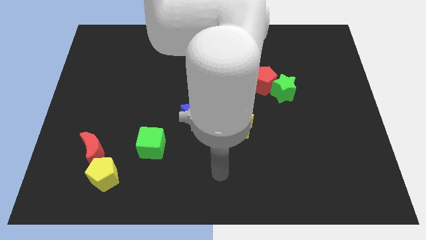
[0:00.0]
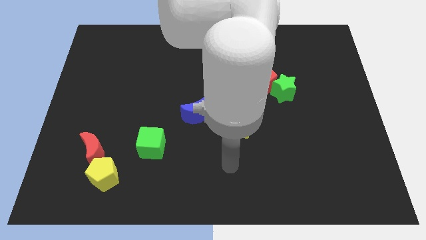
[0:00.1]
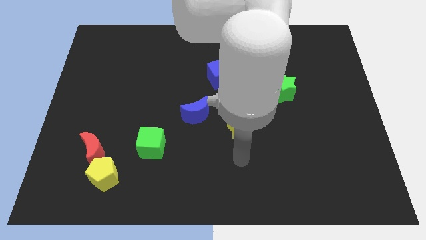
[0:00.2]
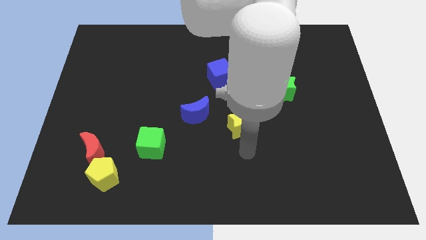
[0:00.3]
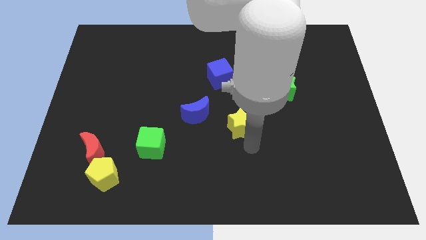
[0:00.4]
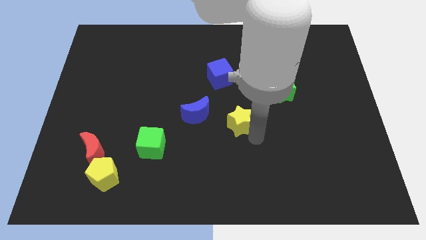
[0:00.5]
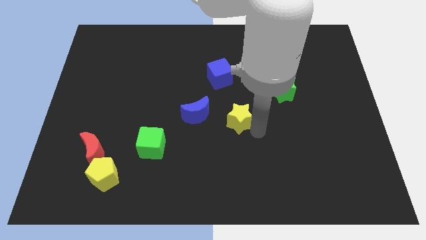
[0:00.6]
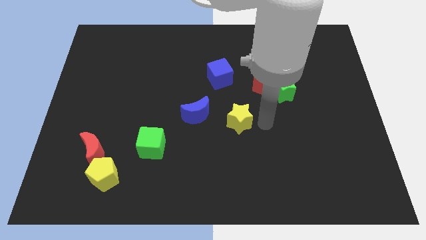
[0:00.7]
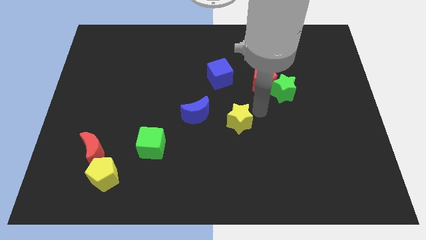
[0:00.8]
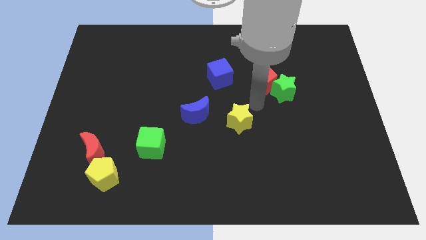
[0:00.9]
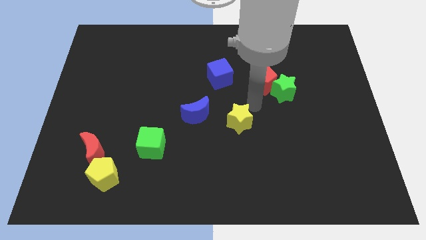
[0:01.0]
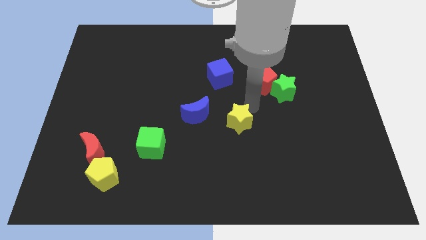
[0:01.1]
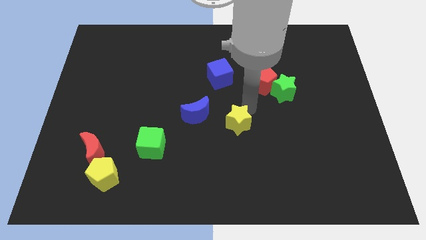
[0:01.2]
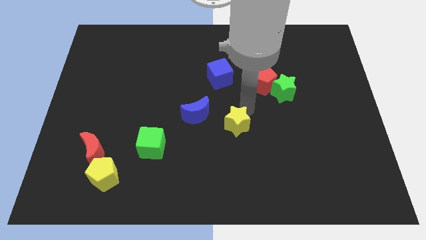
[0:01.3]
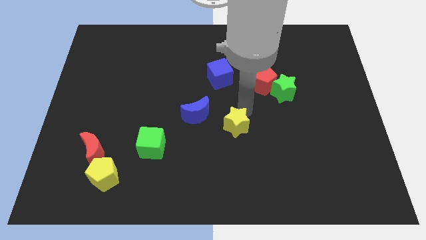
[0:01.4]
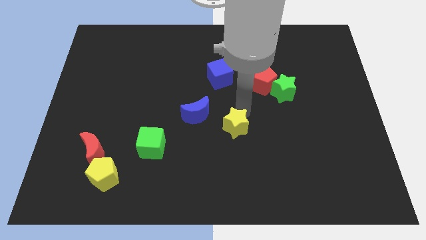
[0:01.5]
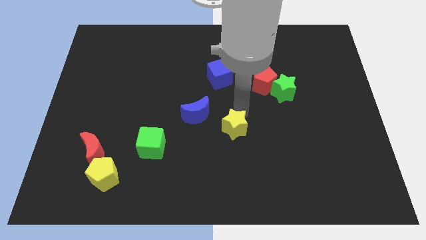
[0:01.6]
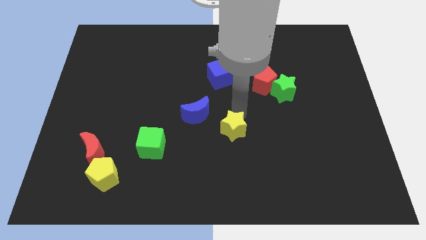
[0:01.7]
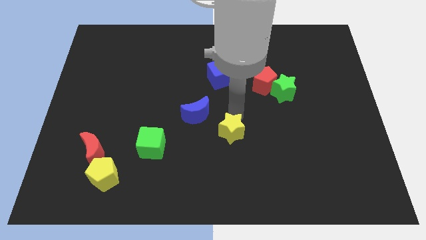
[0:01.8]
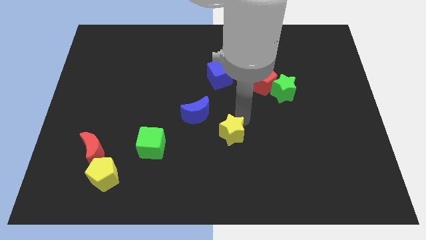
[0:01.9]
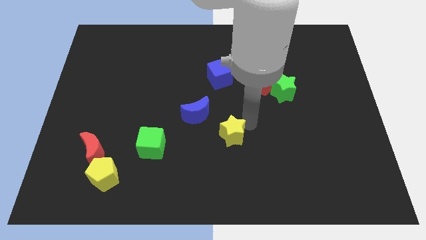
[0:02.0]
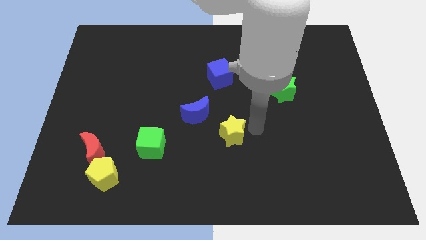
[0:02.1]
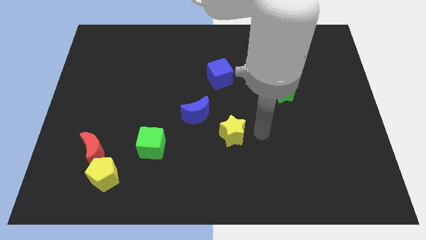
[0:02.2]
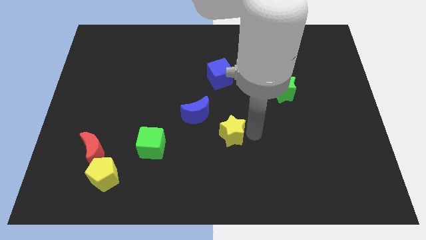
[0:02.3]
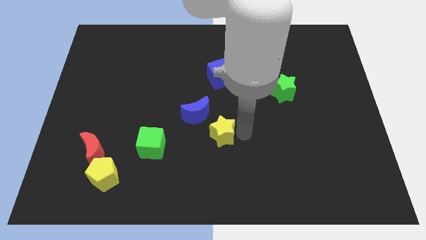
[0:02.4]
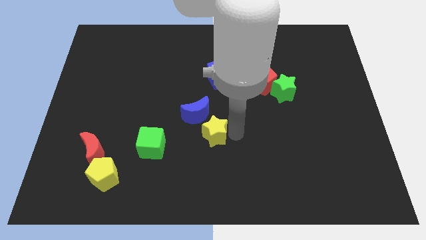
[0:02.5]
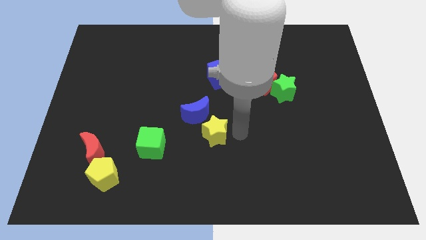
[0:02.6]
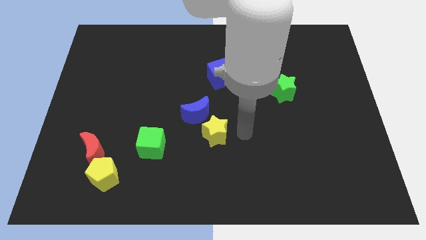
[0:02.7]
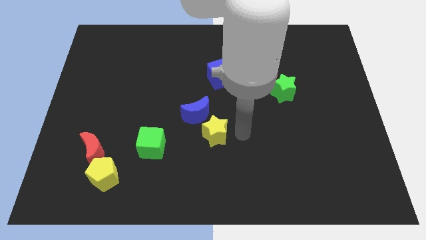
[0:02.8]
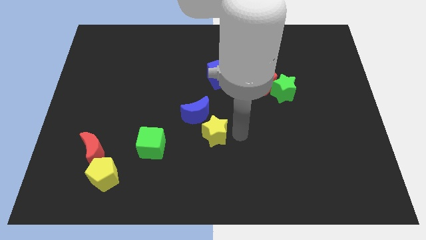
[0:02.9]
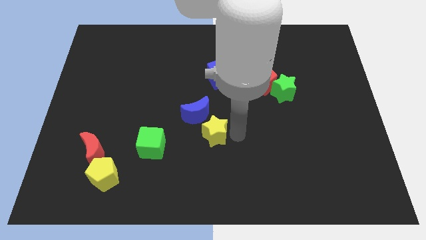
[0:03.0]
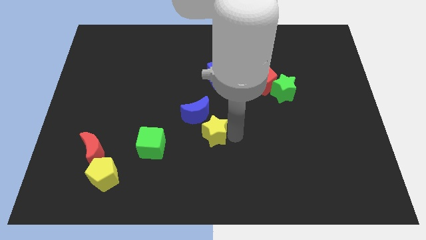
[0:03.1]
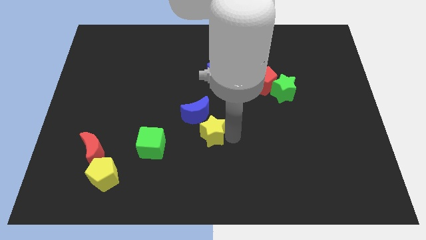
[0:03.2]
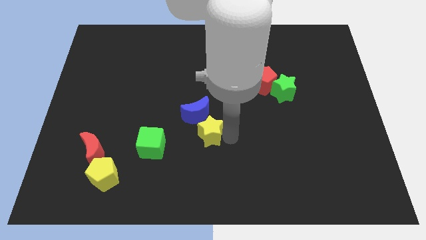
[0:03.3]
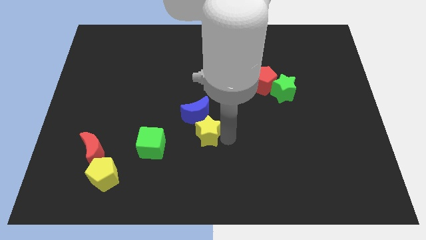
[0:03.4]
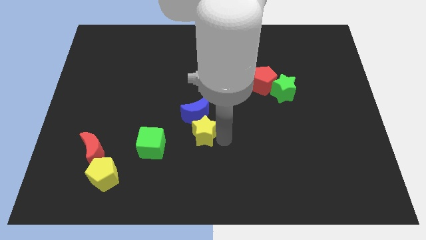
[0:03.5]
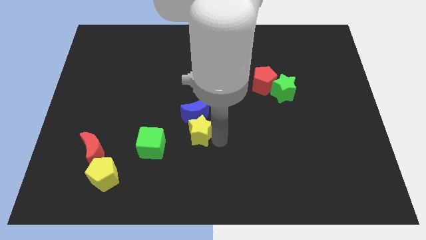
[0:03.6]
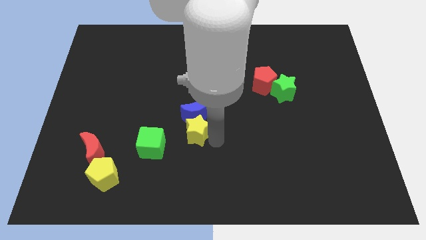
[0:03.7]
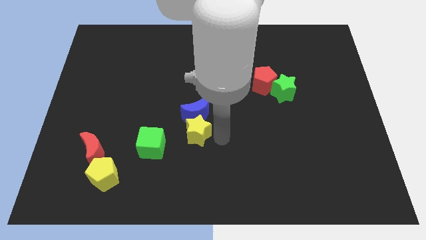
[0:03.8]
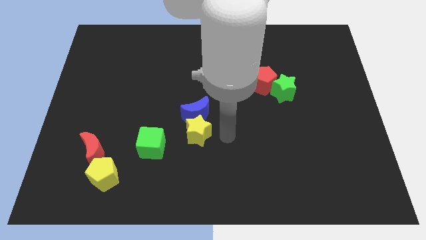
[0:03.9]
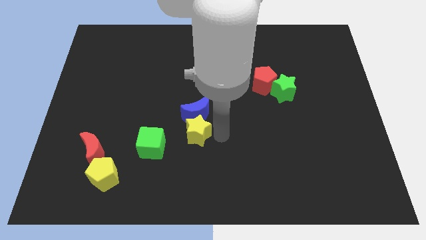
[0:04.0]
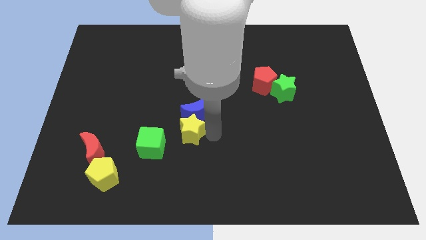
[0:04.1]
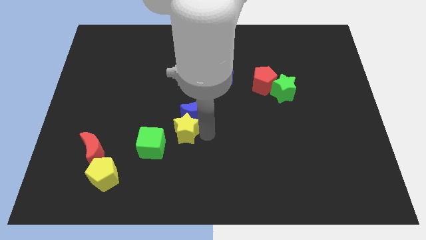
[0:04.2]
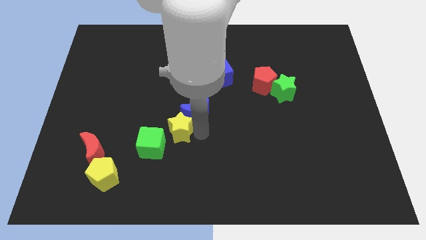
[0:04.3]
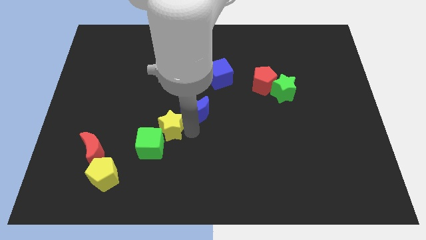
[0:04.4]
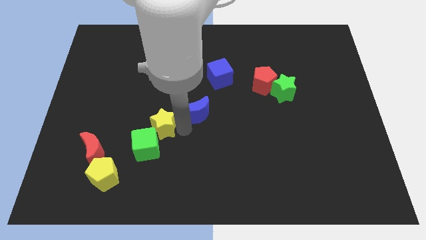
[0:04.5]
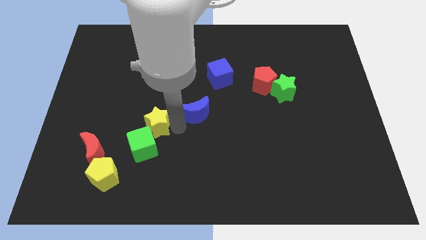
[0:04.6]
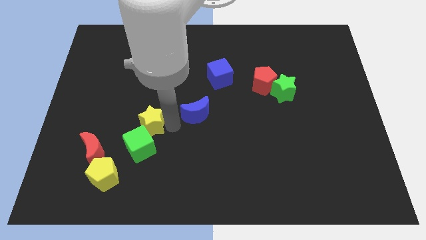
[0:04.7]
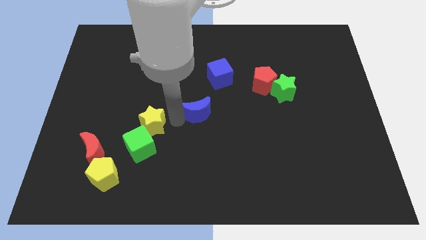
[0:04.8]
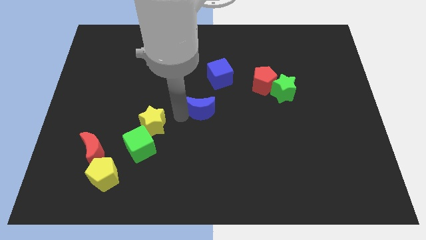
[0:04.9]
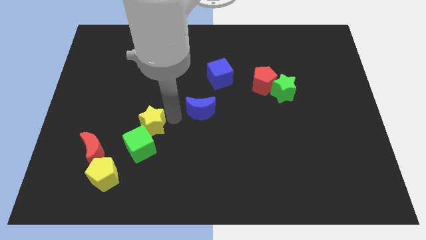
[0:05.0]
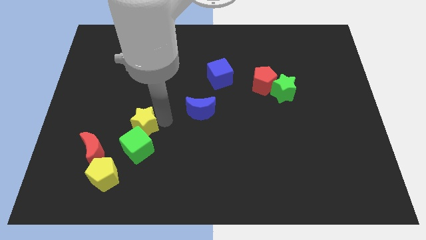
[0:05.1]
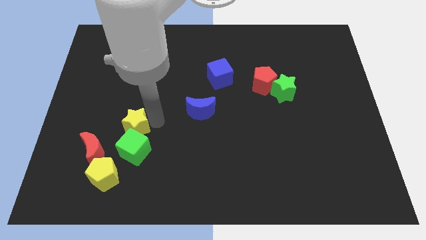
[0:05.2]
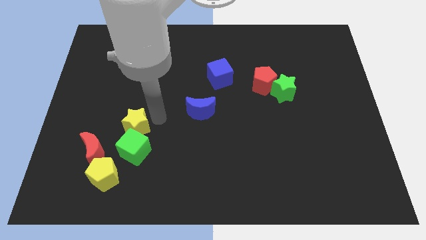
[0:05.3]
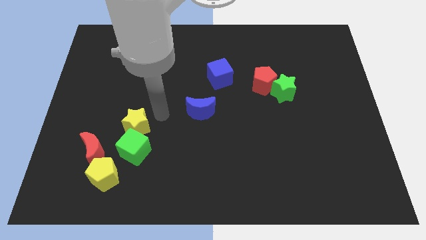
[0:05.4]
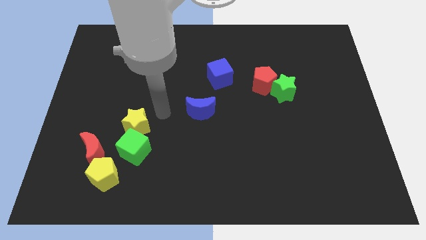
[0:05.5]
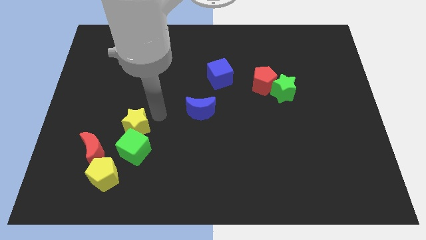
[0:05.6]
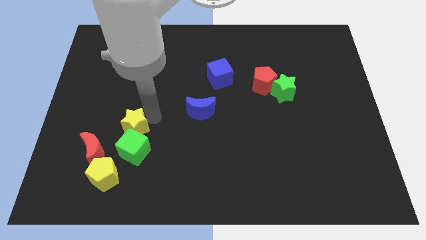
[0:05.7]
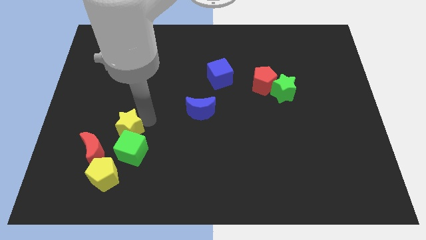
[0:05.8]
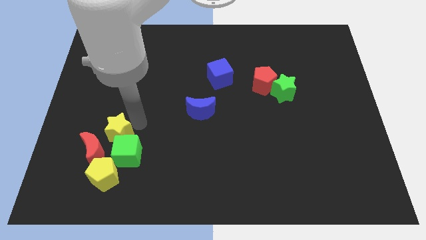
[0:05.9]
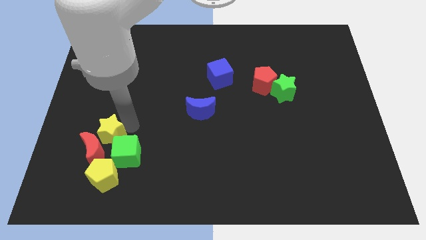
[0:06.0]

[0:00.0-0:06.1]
slide the yellow star close to the red moon

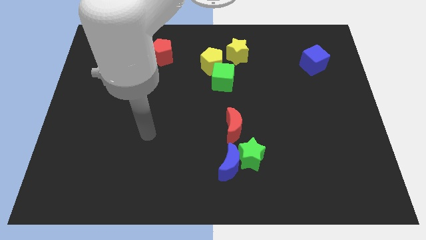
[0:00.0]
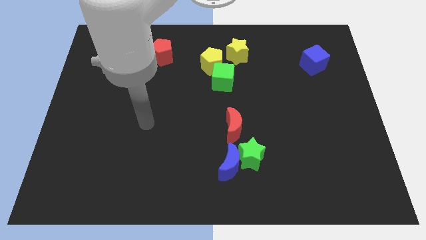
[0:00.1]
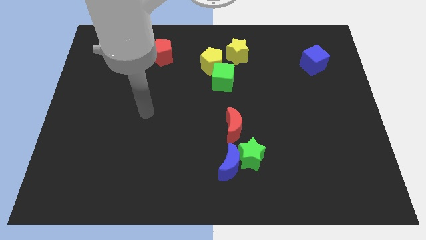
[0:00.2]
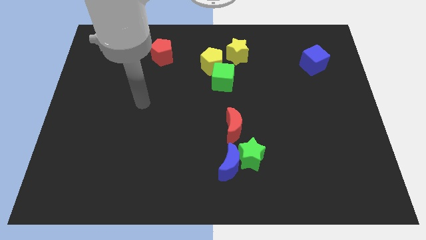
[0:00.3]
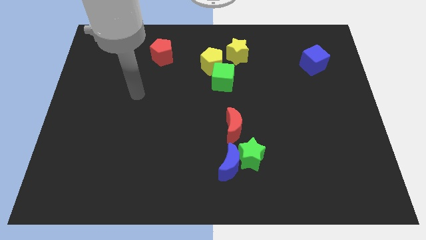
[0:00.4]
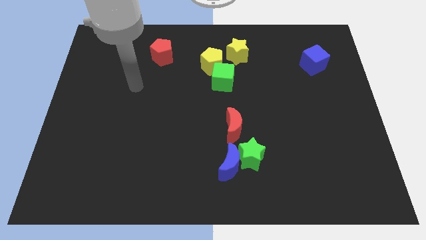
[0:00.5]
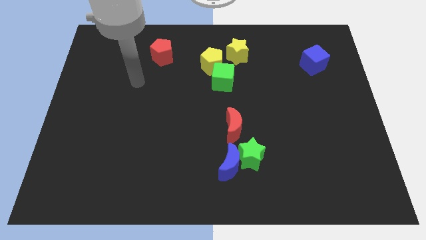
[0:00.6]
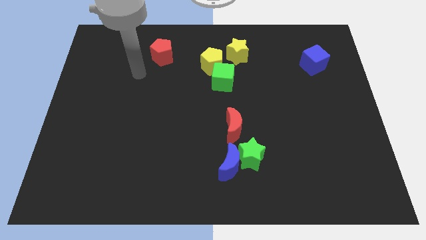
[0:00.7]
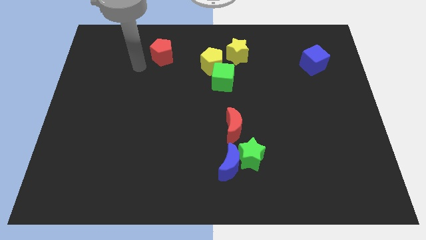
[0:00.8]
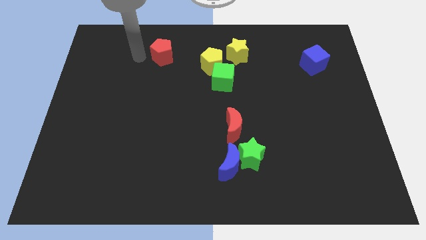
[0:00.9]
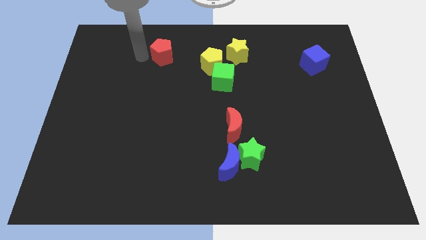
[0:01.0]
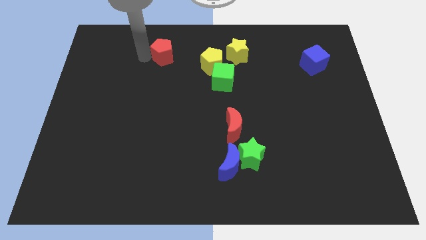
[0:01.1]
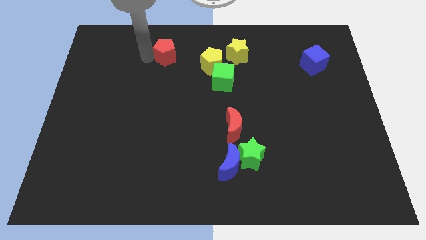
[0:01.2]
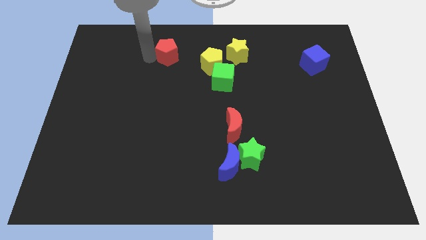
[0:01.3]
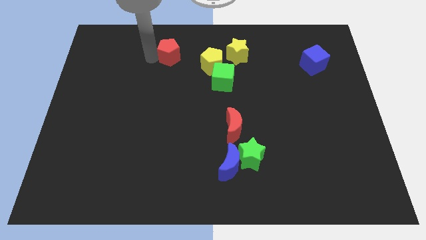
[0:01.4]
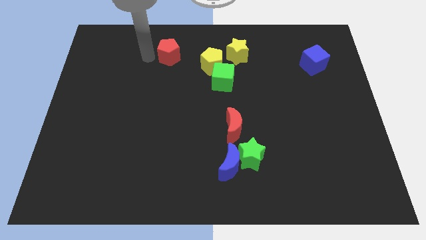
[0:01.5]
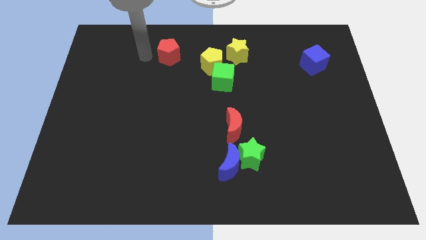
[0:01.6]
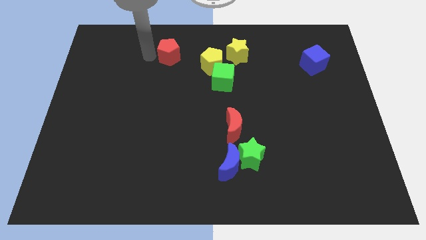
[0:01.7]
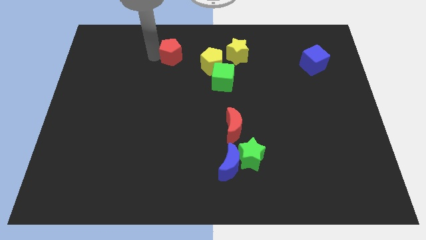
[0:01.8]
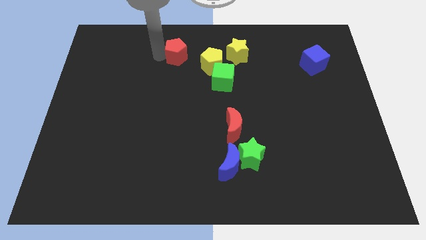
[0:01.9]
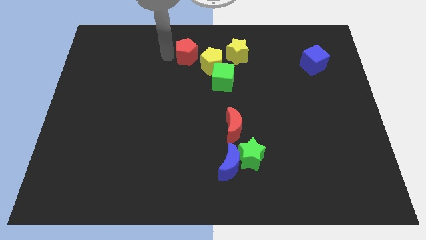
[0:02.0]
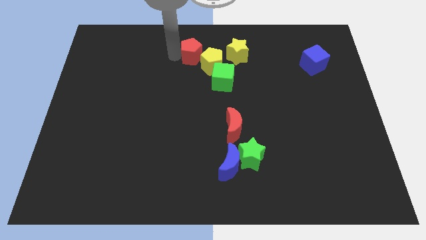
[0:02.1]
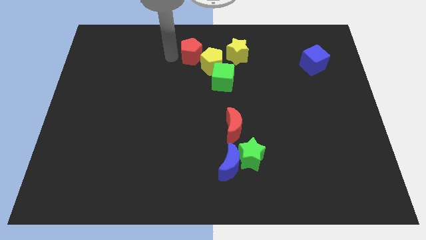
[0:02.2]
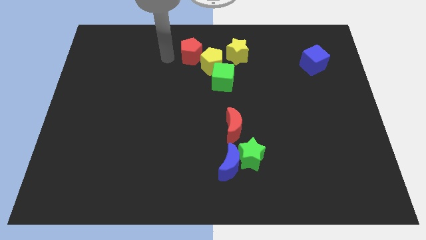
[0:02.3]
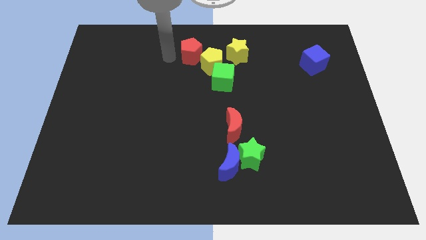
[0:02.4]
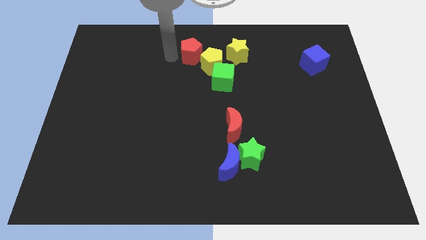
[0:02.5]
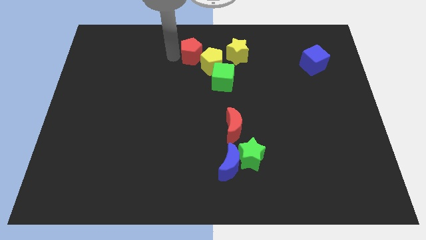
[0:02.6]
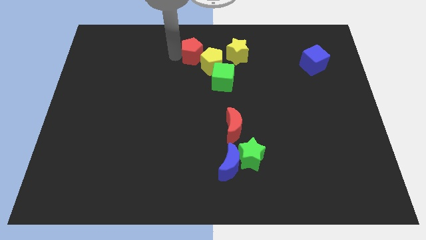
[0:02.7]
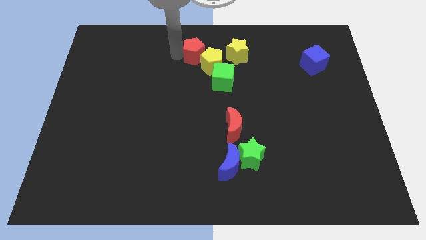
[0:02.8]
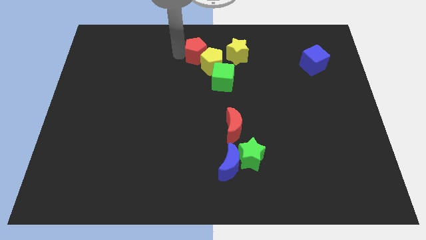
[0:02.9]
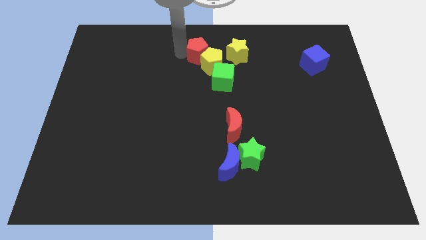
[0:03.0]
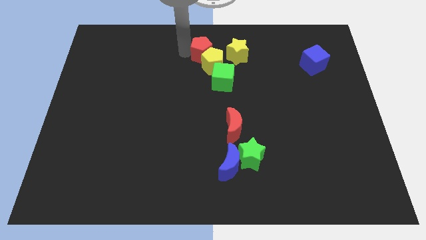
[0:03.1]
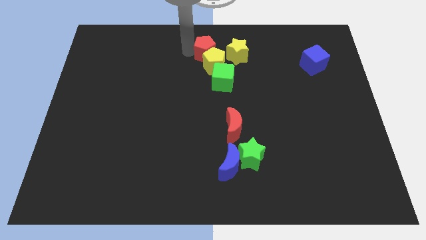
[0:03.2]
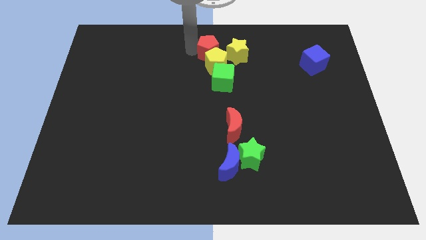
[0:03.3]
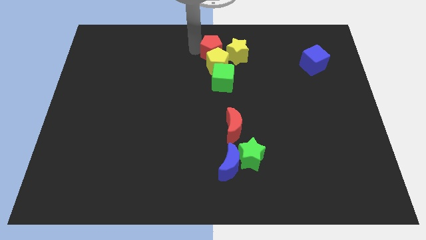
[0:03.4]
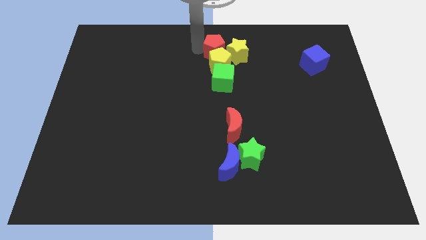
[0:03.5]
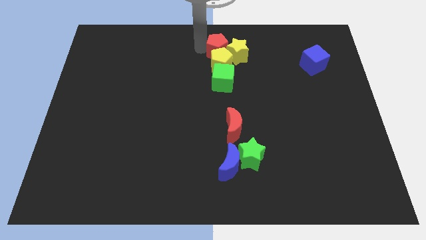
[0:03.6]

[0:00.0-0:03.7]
move the red pentagon next to the yellow star
